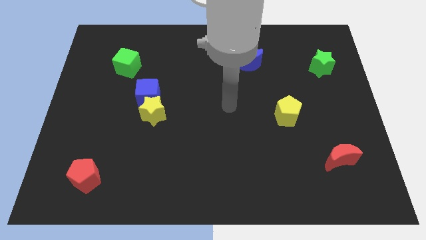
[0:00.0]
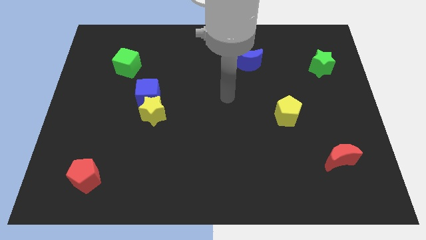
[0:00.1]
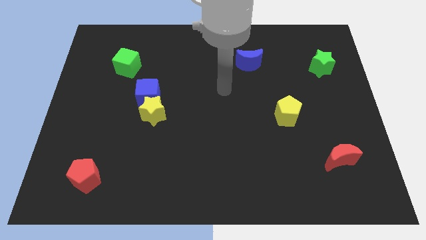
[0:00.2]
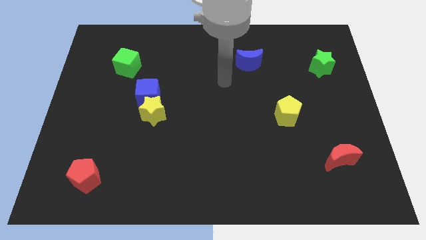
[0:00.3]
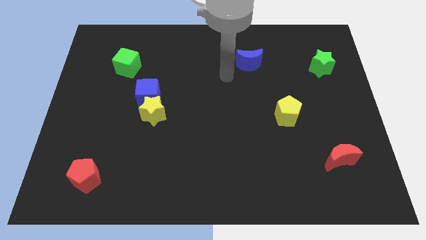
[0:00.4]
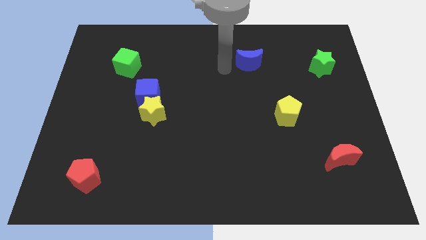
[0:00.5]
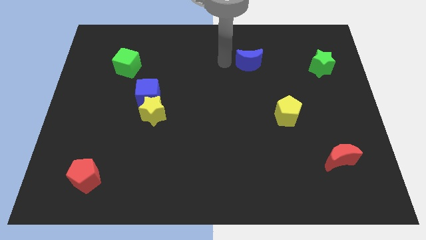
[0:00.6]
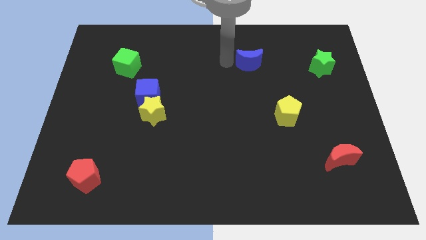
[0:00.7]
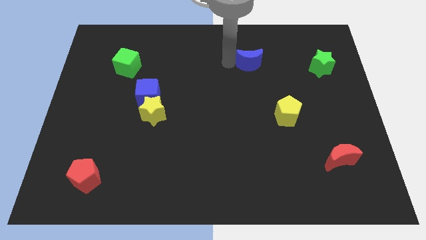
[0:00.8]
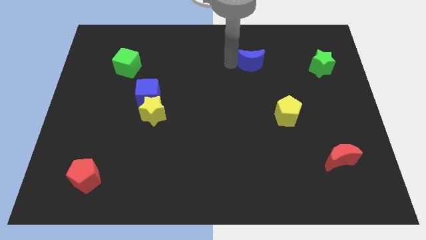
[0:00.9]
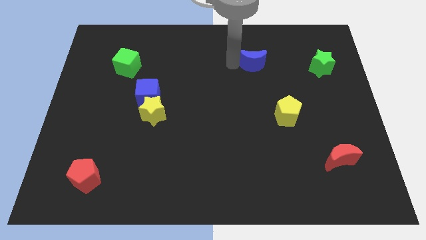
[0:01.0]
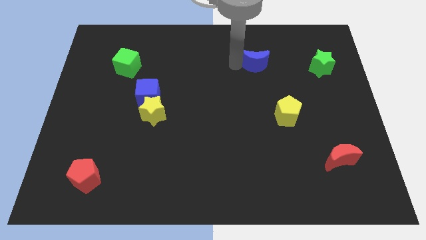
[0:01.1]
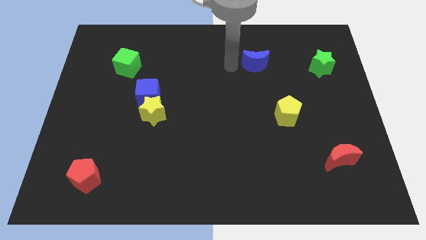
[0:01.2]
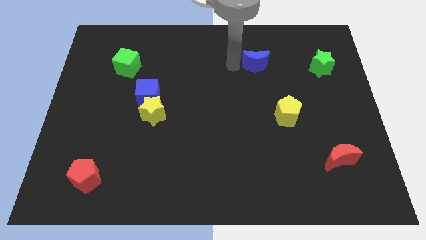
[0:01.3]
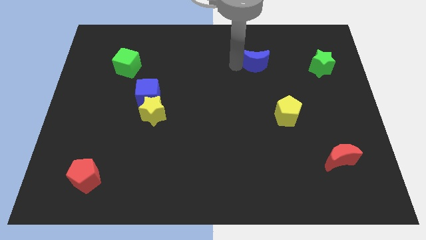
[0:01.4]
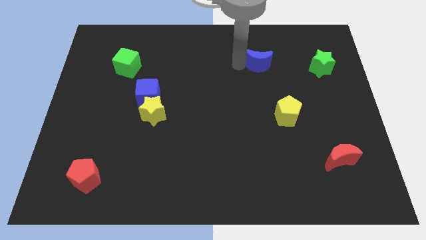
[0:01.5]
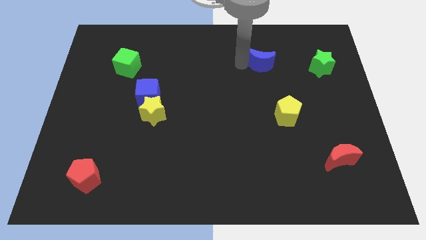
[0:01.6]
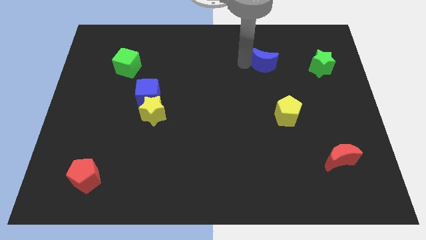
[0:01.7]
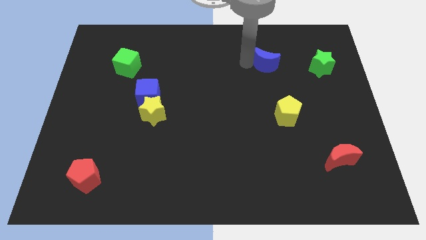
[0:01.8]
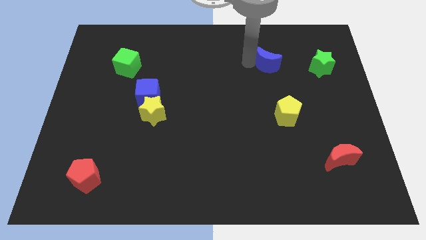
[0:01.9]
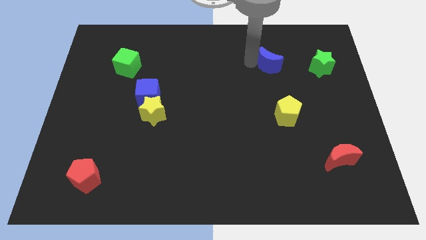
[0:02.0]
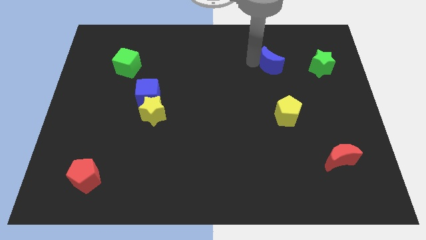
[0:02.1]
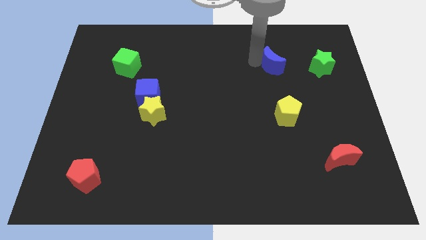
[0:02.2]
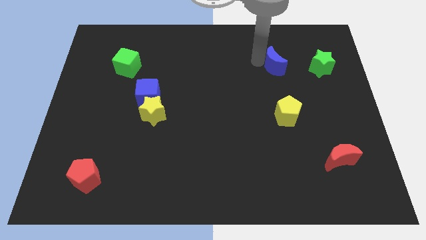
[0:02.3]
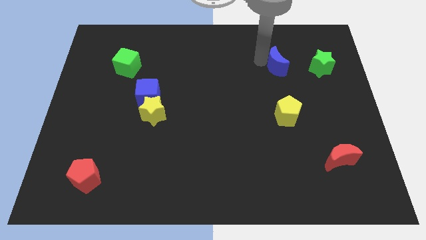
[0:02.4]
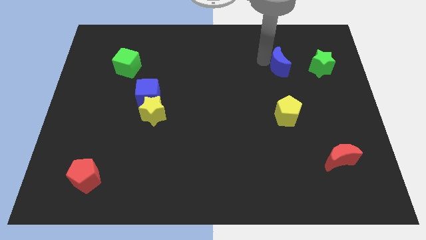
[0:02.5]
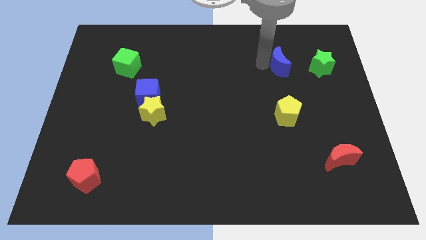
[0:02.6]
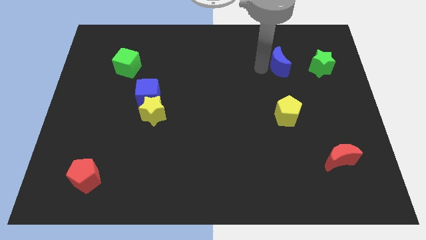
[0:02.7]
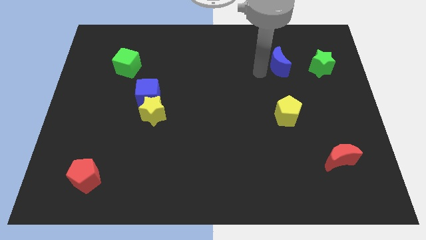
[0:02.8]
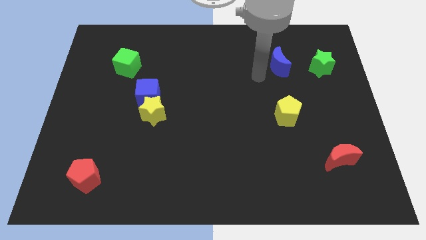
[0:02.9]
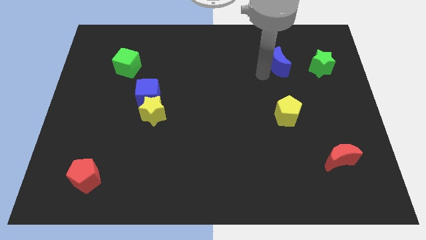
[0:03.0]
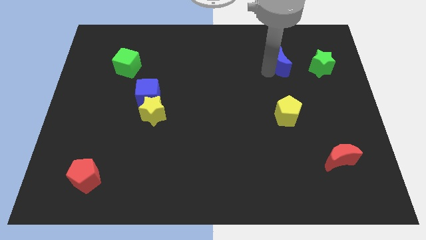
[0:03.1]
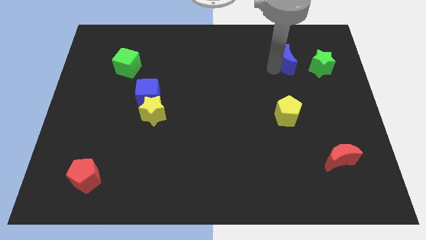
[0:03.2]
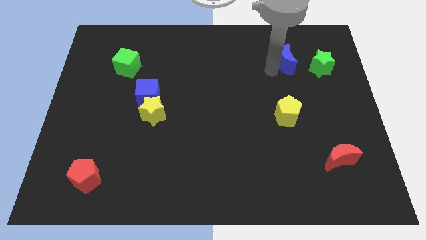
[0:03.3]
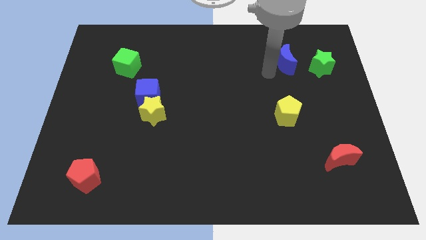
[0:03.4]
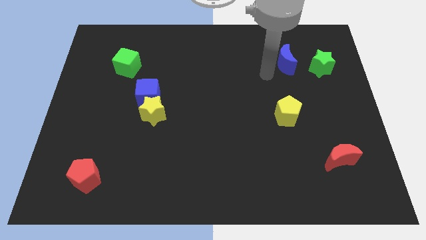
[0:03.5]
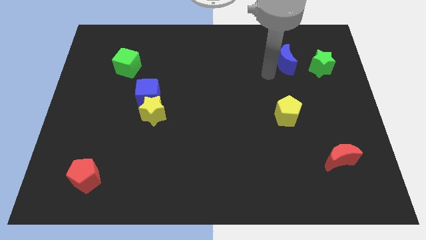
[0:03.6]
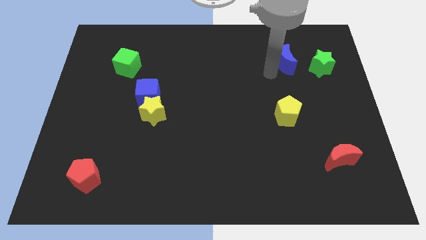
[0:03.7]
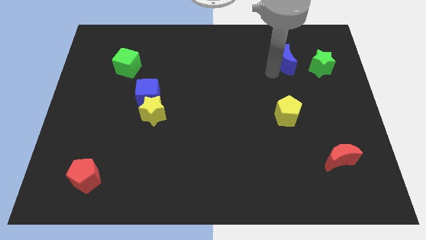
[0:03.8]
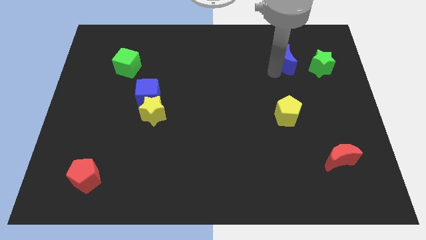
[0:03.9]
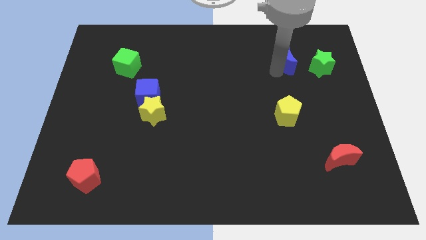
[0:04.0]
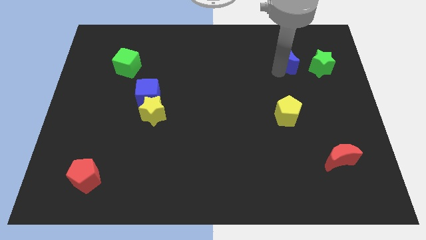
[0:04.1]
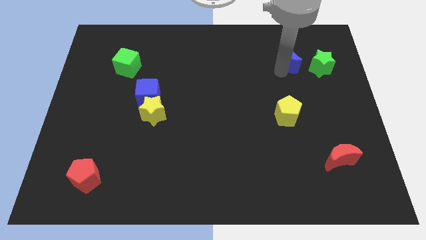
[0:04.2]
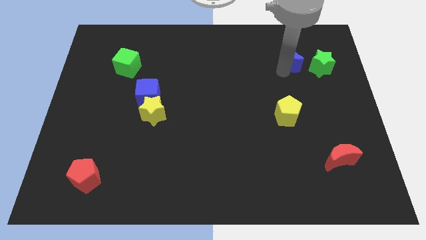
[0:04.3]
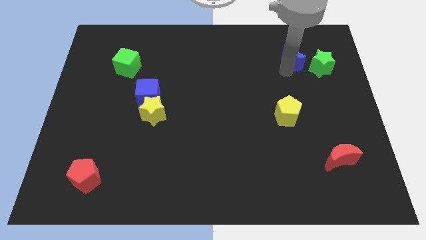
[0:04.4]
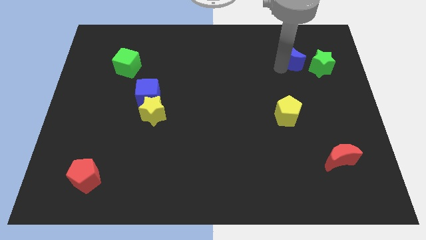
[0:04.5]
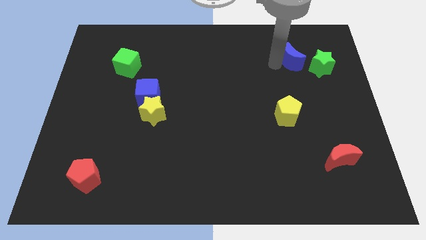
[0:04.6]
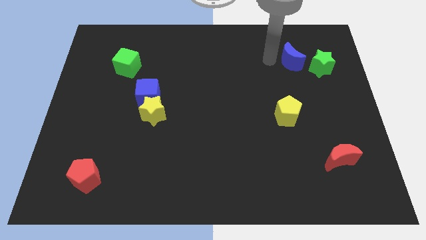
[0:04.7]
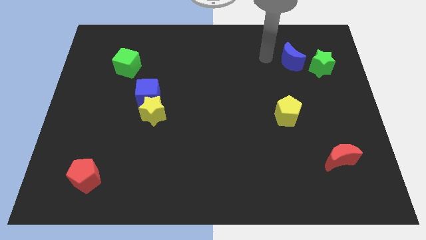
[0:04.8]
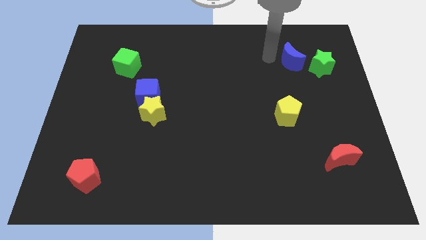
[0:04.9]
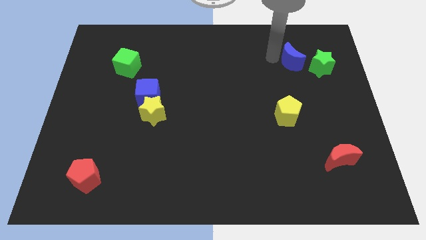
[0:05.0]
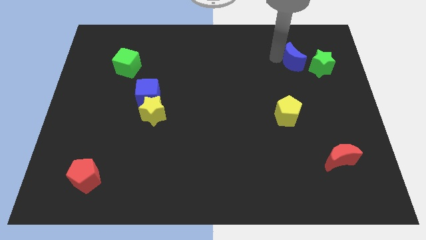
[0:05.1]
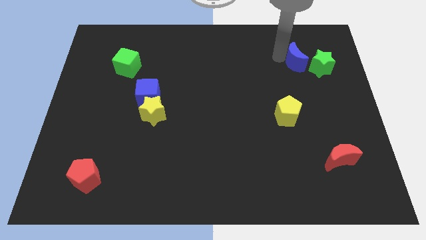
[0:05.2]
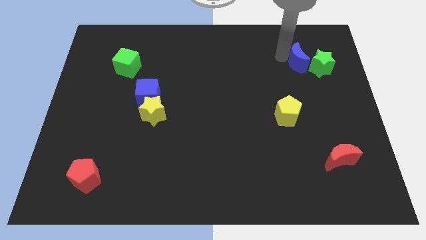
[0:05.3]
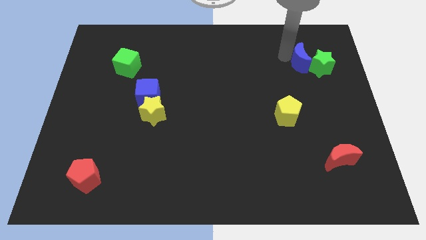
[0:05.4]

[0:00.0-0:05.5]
push the blue moon to the green star

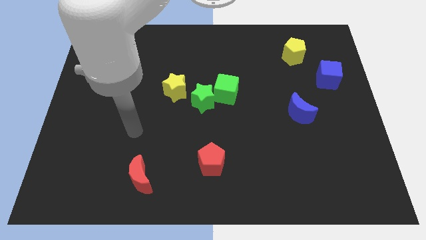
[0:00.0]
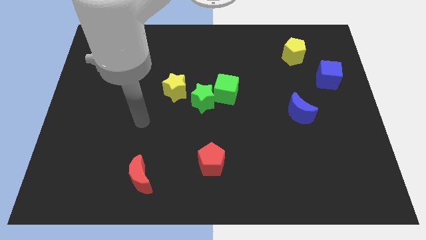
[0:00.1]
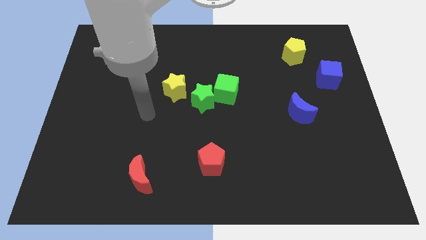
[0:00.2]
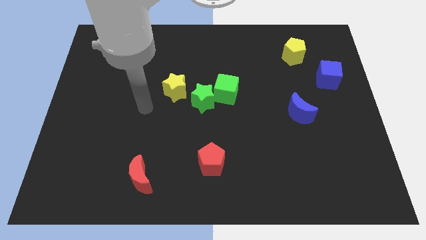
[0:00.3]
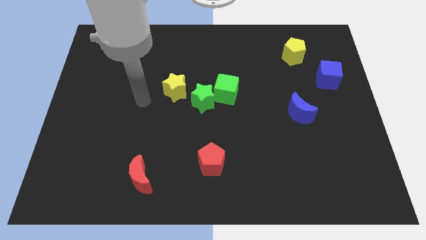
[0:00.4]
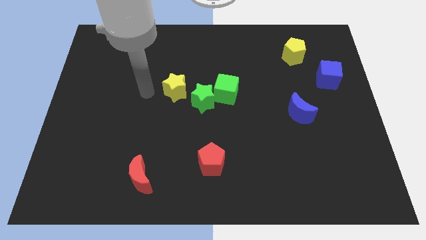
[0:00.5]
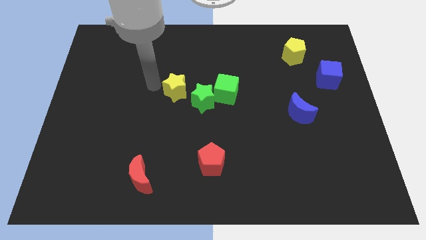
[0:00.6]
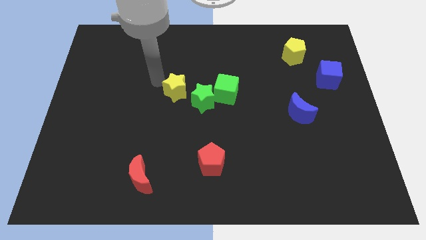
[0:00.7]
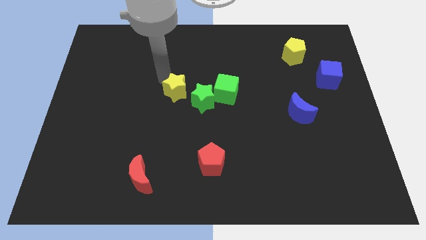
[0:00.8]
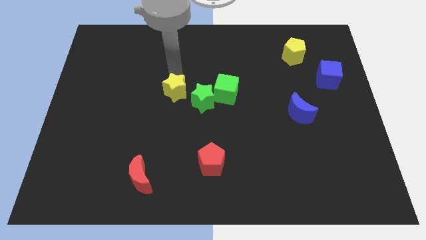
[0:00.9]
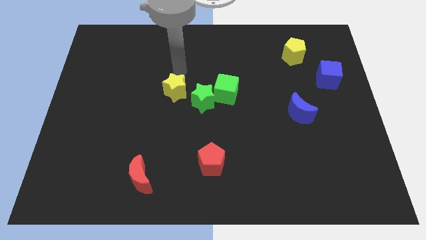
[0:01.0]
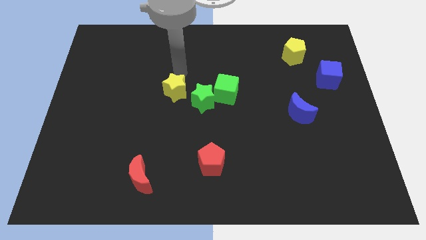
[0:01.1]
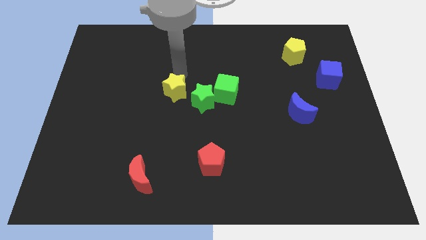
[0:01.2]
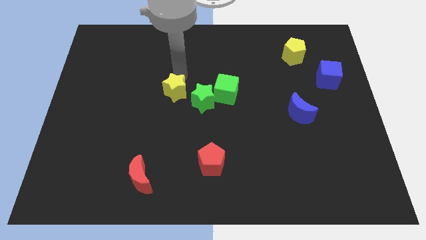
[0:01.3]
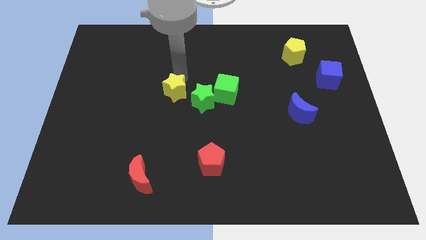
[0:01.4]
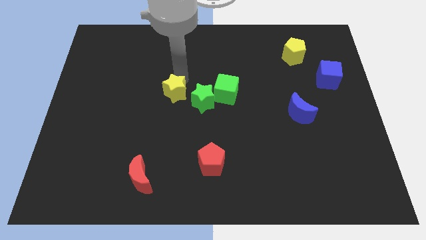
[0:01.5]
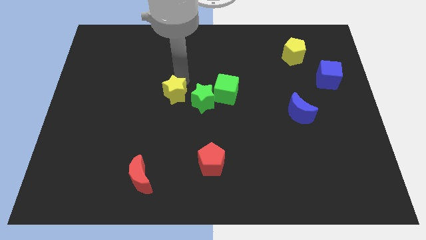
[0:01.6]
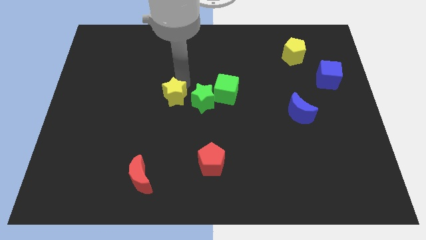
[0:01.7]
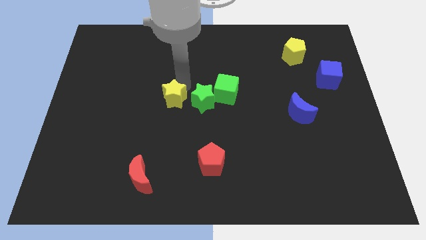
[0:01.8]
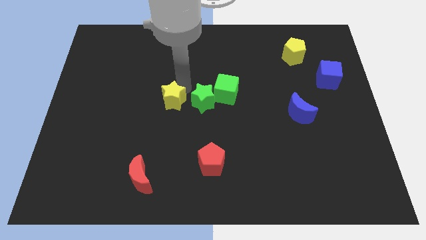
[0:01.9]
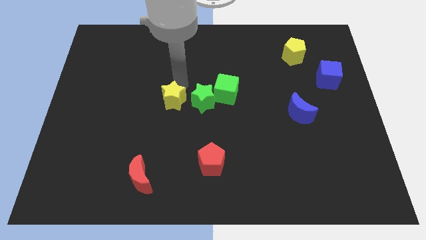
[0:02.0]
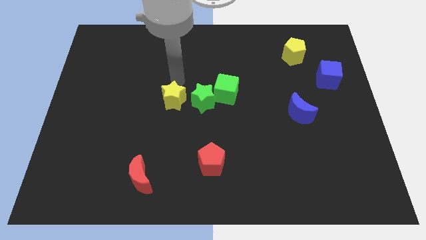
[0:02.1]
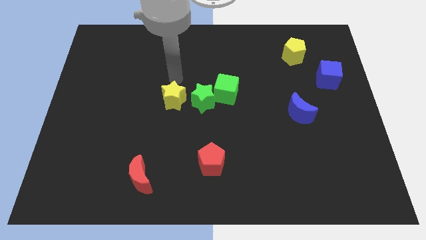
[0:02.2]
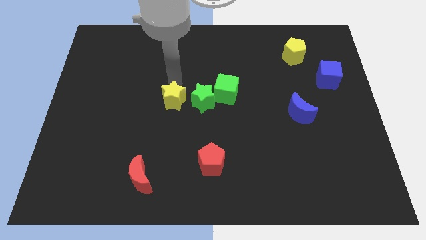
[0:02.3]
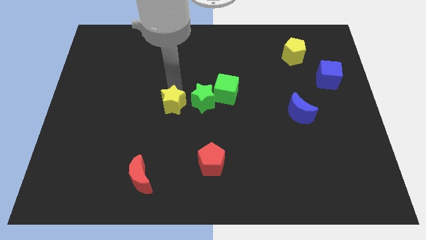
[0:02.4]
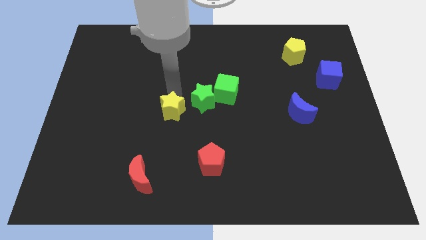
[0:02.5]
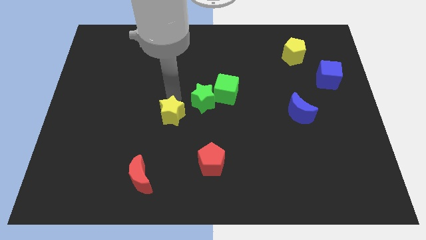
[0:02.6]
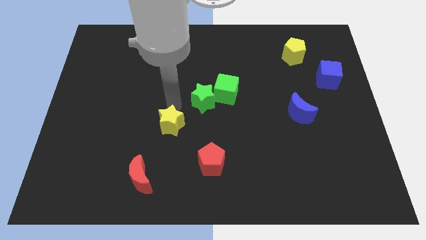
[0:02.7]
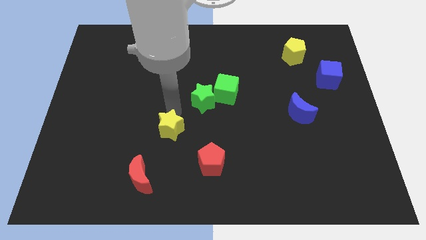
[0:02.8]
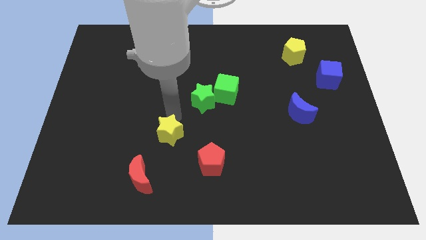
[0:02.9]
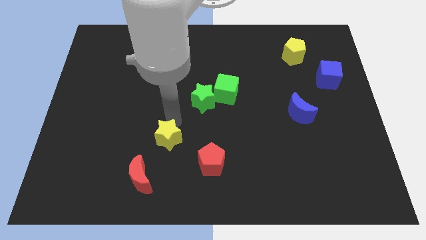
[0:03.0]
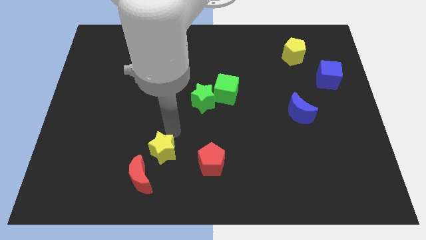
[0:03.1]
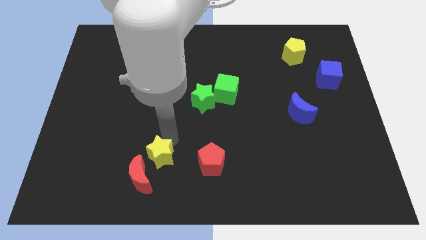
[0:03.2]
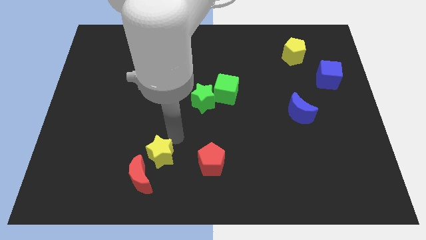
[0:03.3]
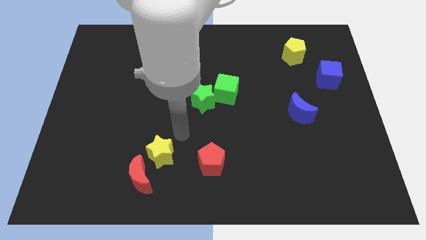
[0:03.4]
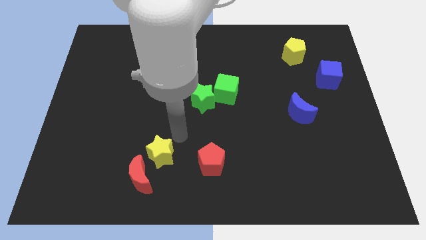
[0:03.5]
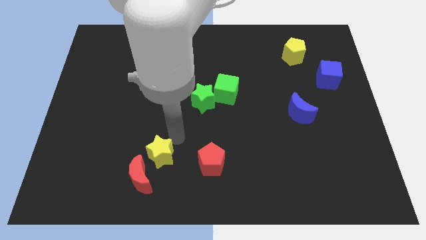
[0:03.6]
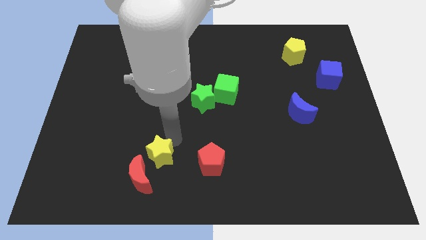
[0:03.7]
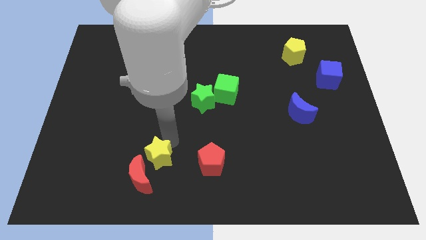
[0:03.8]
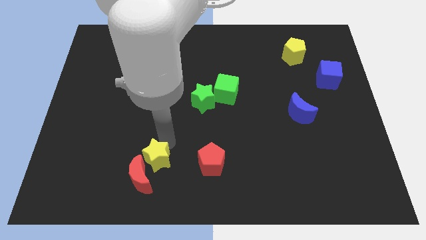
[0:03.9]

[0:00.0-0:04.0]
put the yellow star close to the red moon
